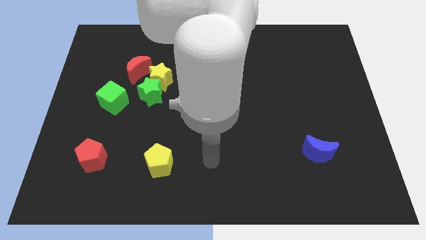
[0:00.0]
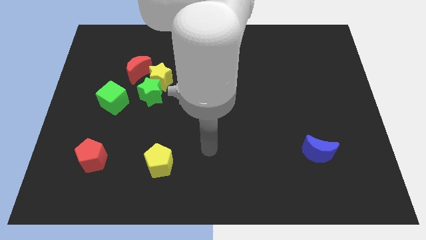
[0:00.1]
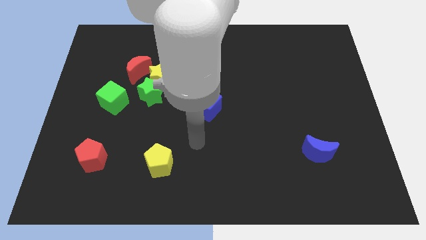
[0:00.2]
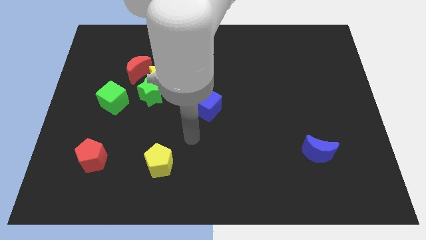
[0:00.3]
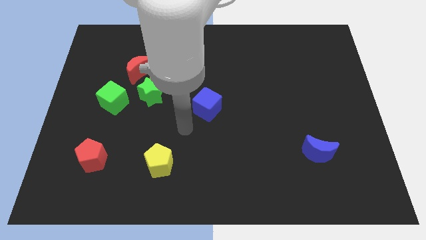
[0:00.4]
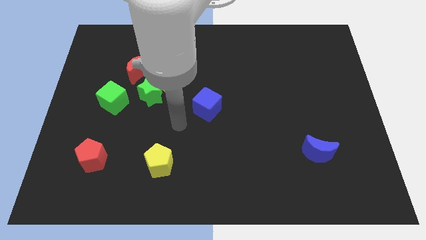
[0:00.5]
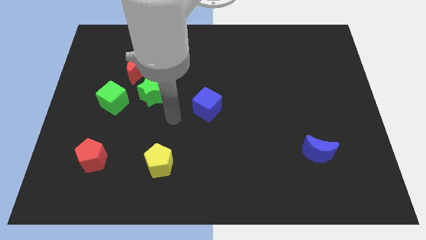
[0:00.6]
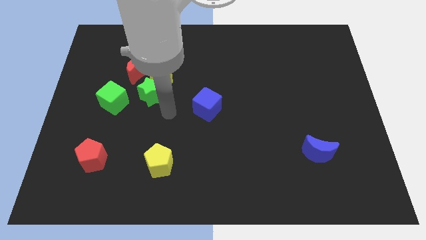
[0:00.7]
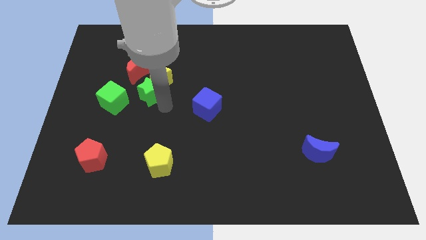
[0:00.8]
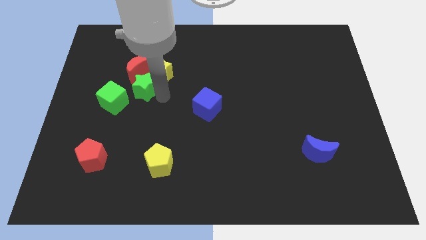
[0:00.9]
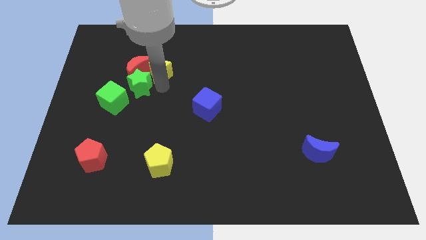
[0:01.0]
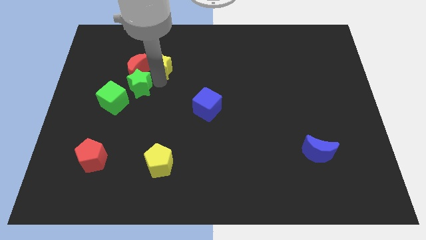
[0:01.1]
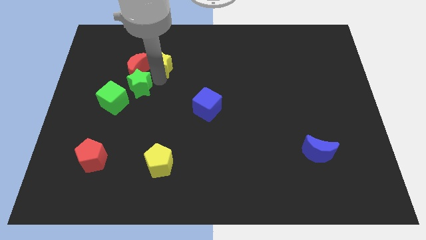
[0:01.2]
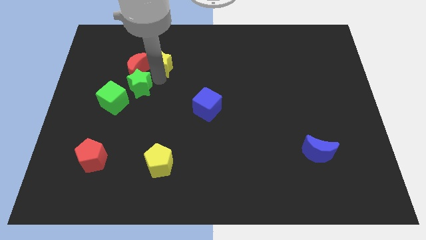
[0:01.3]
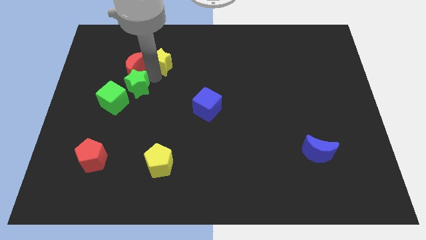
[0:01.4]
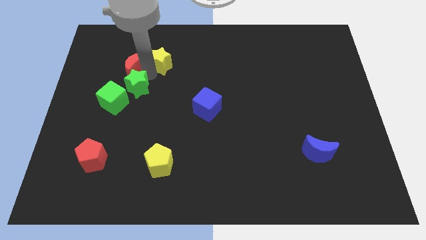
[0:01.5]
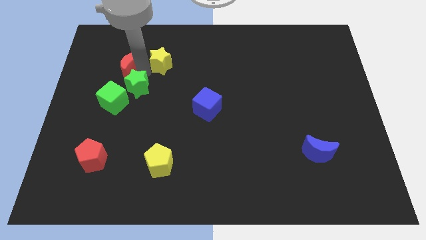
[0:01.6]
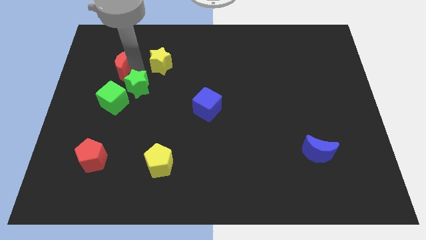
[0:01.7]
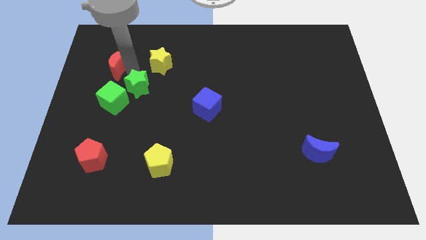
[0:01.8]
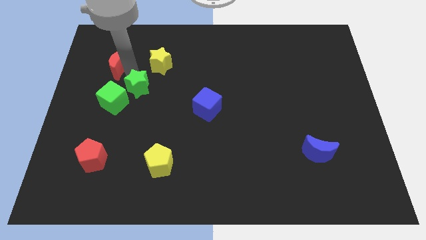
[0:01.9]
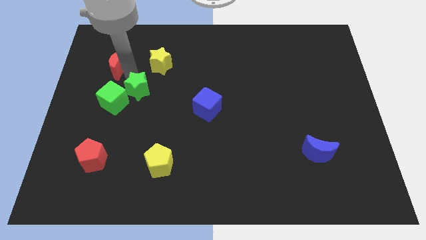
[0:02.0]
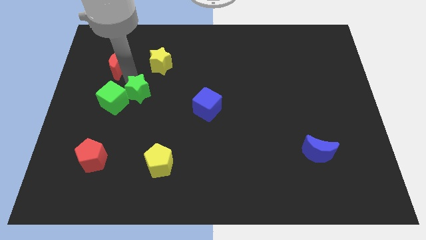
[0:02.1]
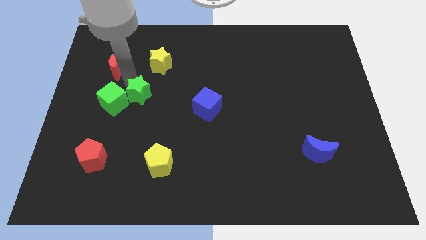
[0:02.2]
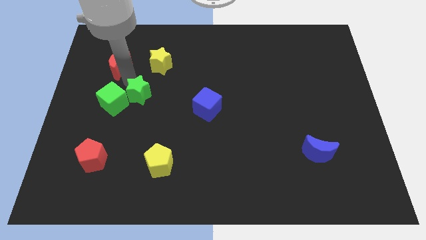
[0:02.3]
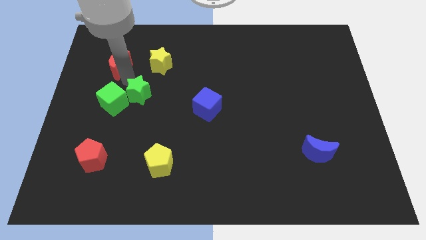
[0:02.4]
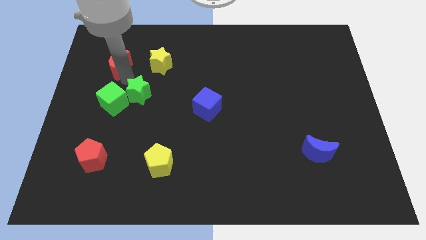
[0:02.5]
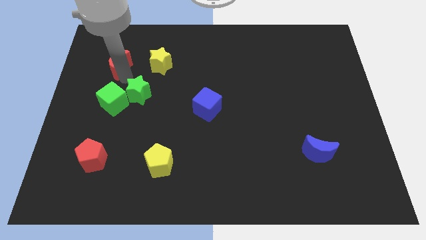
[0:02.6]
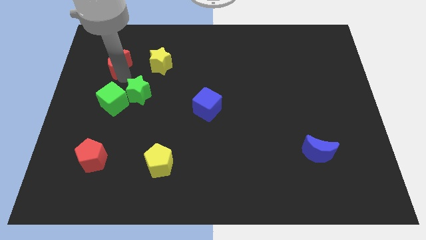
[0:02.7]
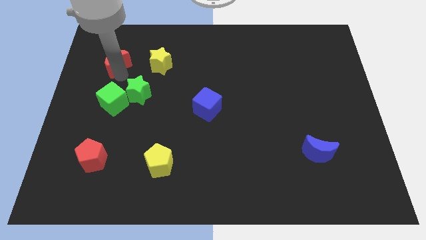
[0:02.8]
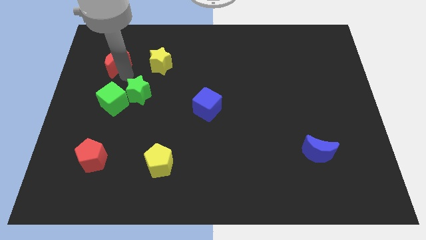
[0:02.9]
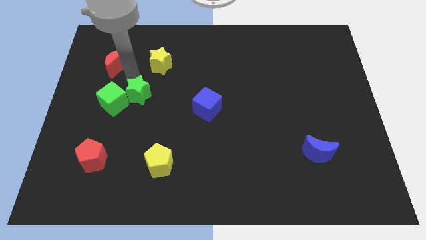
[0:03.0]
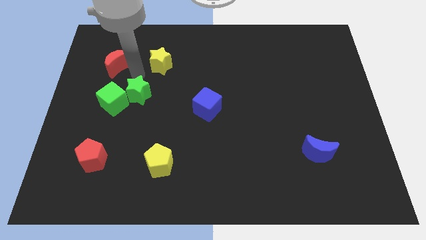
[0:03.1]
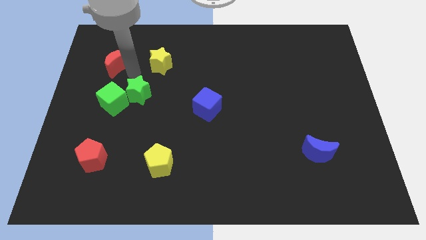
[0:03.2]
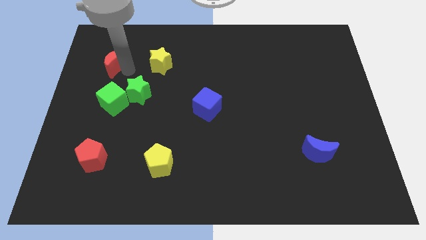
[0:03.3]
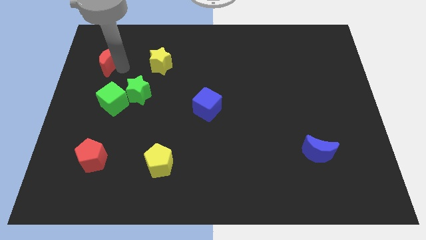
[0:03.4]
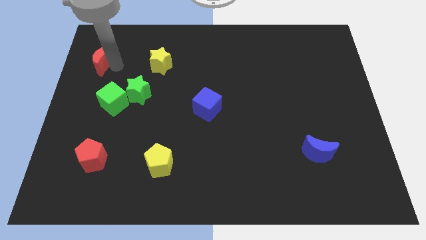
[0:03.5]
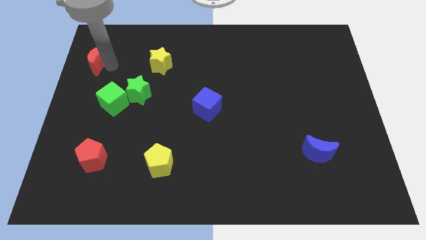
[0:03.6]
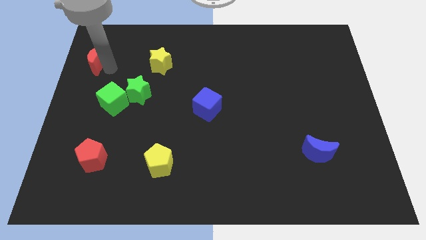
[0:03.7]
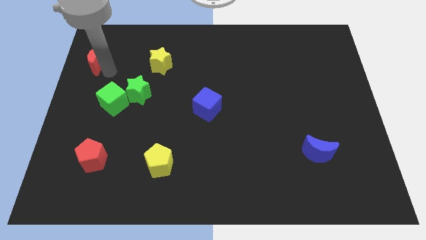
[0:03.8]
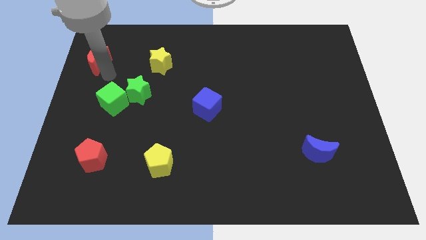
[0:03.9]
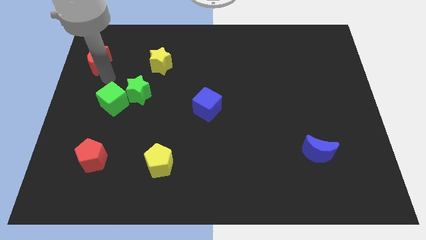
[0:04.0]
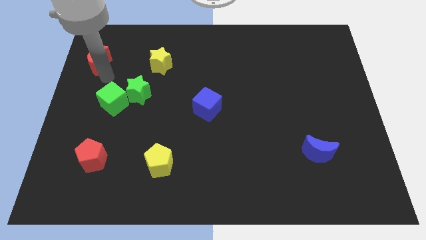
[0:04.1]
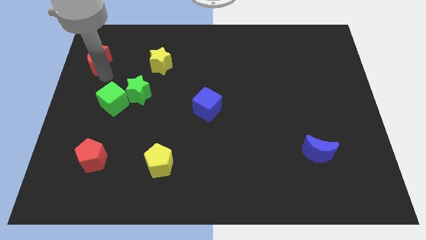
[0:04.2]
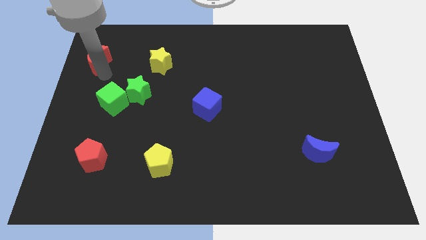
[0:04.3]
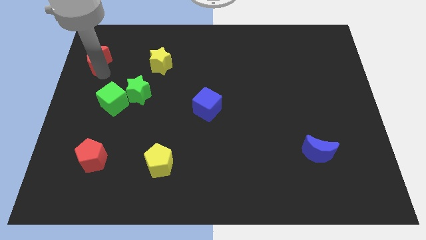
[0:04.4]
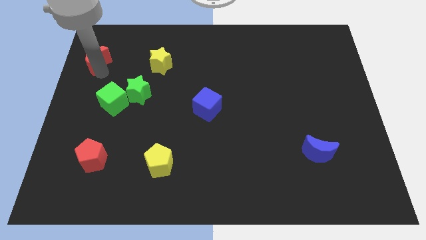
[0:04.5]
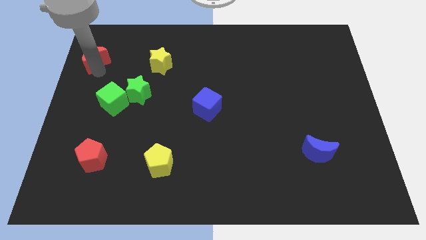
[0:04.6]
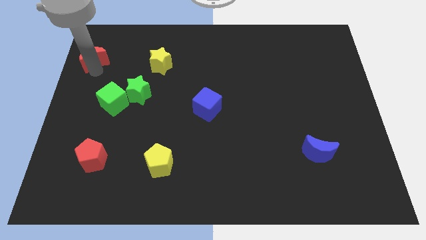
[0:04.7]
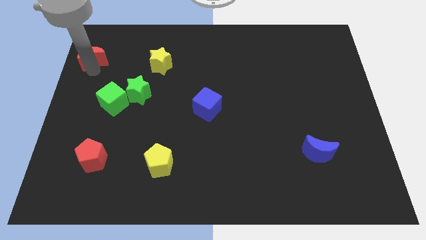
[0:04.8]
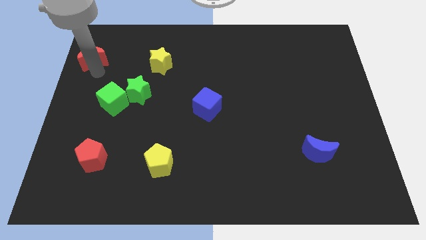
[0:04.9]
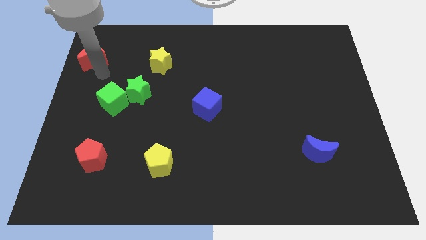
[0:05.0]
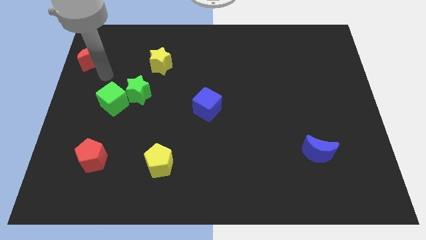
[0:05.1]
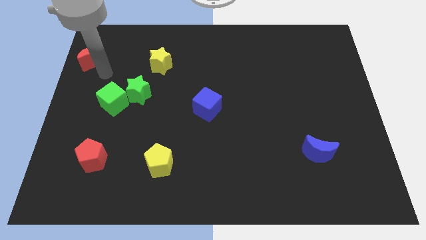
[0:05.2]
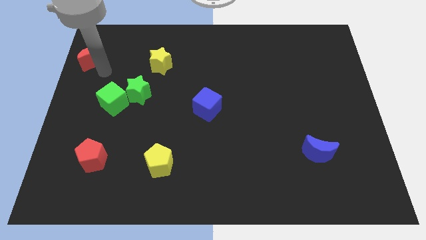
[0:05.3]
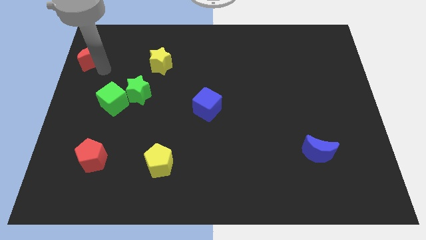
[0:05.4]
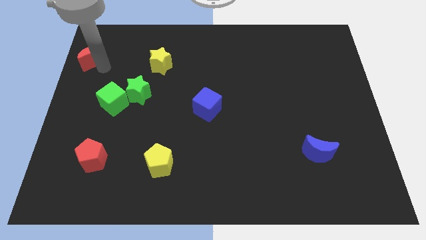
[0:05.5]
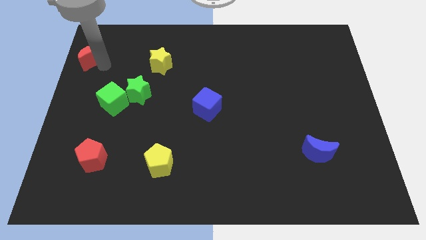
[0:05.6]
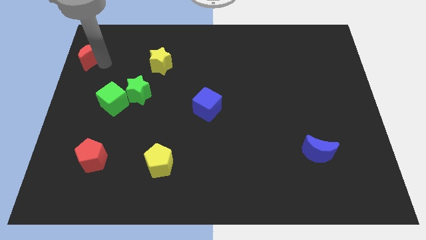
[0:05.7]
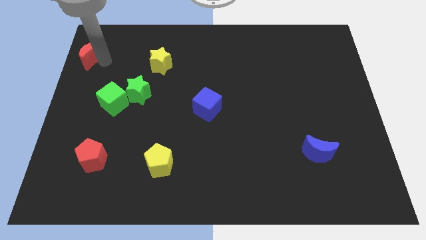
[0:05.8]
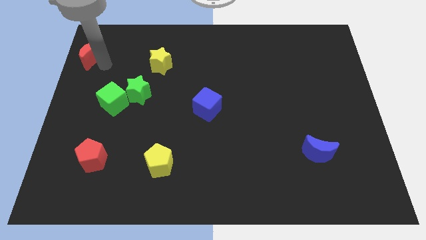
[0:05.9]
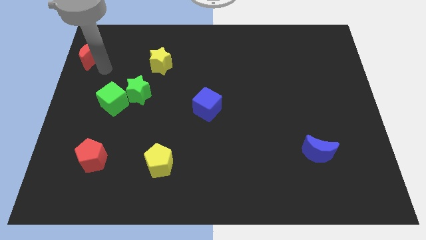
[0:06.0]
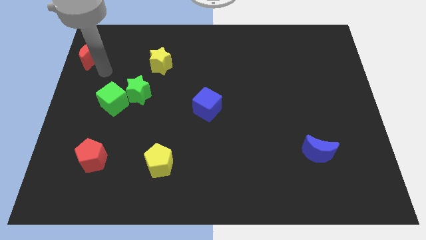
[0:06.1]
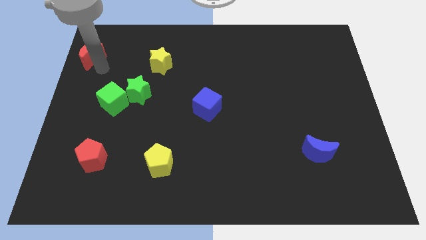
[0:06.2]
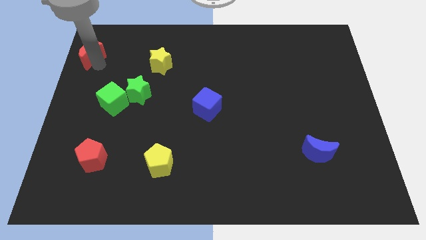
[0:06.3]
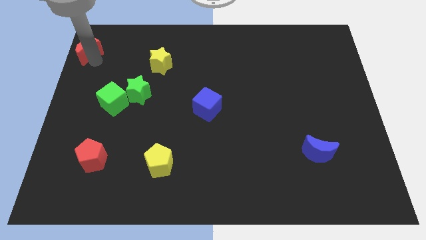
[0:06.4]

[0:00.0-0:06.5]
move the red moon to the upper left corner

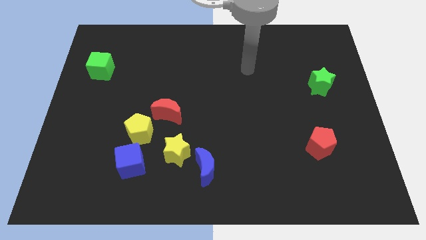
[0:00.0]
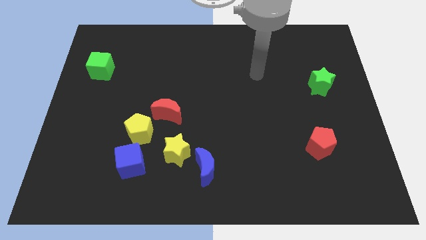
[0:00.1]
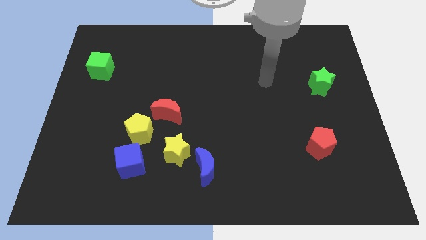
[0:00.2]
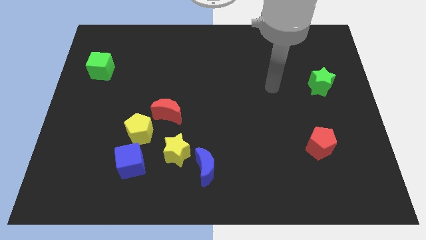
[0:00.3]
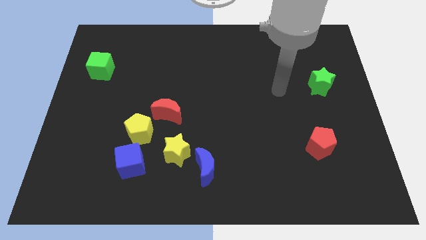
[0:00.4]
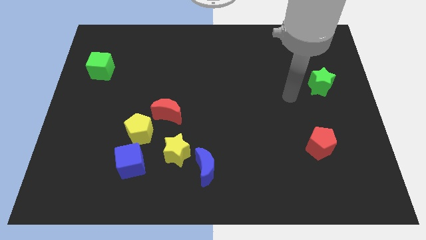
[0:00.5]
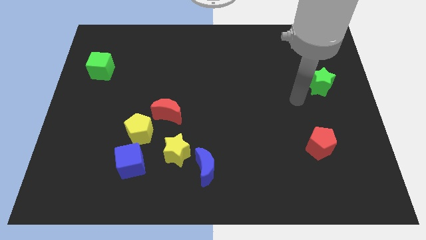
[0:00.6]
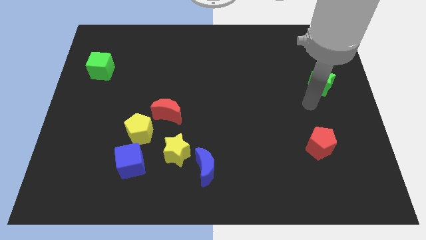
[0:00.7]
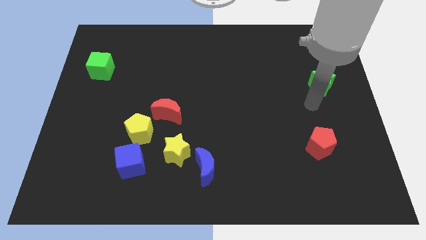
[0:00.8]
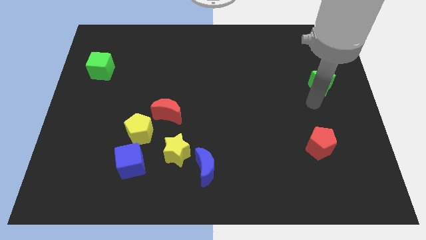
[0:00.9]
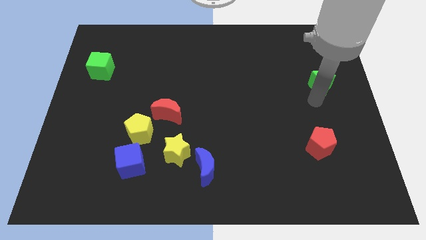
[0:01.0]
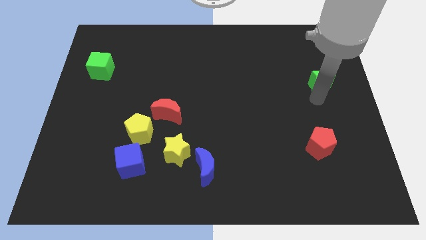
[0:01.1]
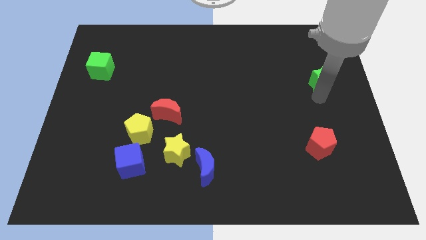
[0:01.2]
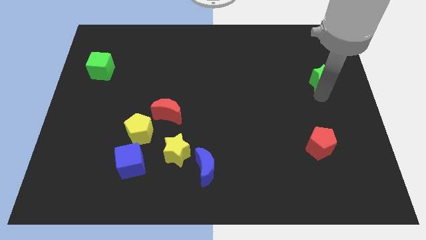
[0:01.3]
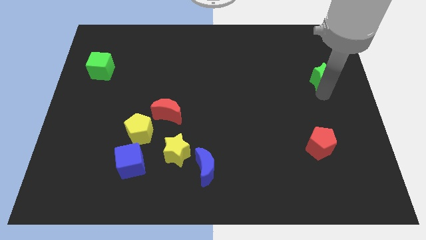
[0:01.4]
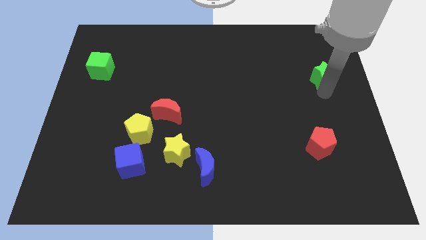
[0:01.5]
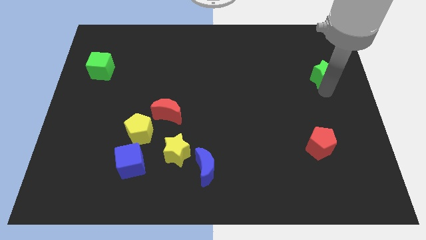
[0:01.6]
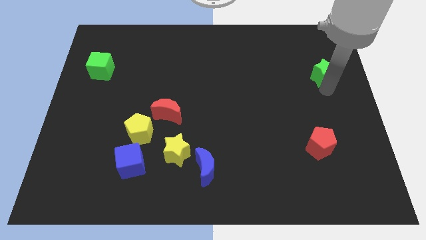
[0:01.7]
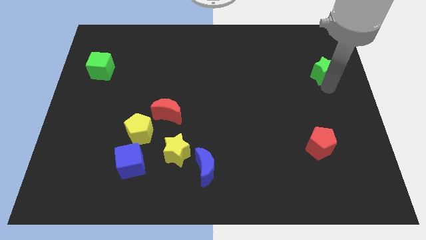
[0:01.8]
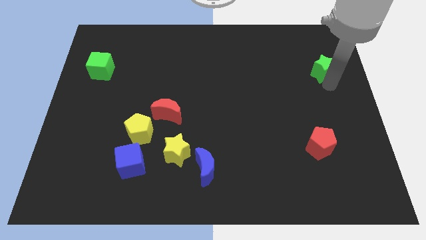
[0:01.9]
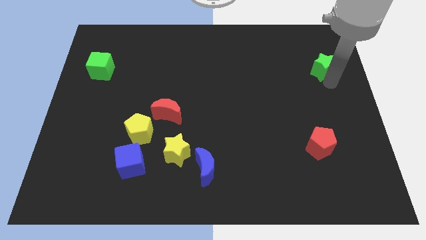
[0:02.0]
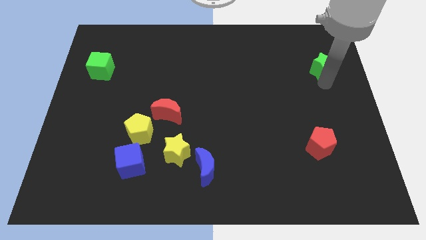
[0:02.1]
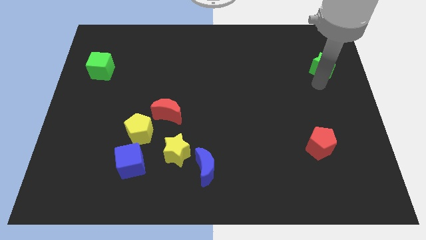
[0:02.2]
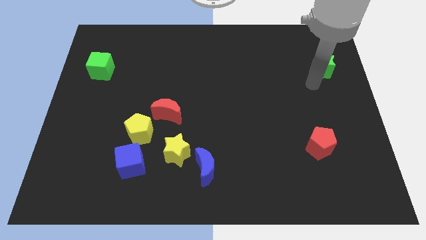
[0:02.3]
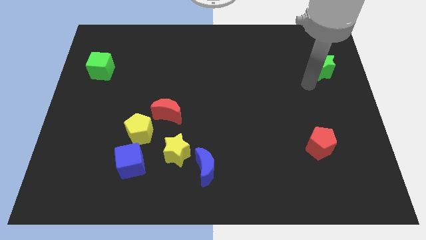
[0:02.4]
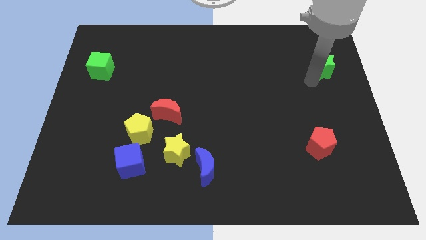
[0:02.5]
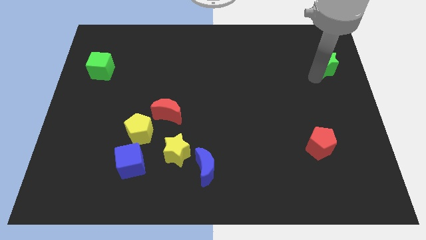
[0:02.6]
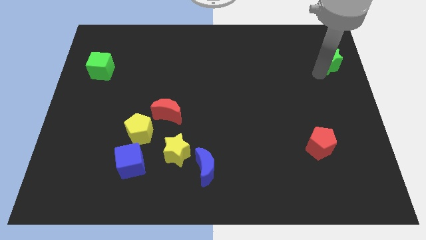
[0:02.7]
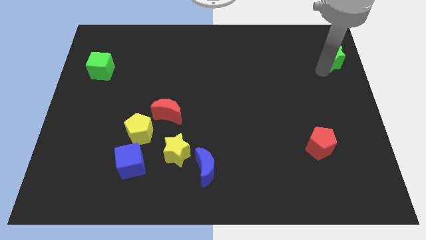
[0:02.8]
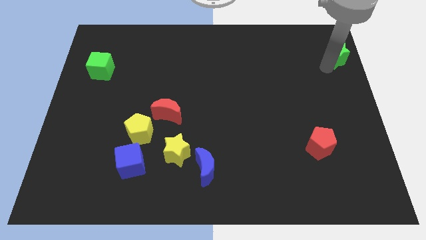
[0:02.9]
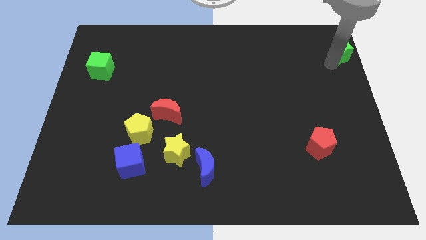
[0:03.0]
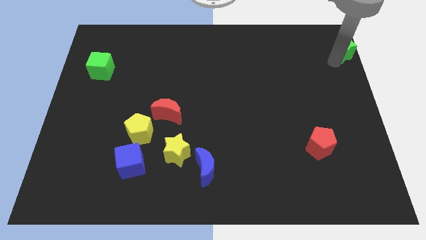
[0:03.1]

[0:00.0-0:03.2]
move the green star to the top right
